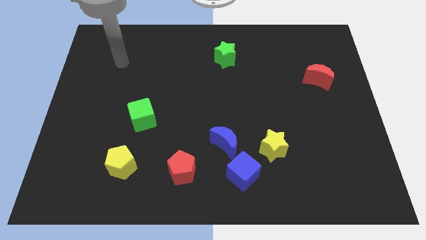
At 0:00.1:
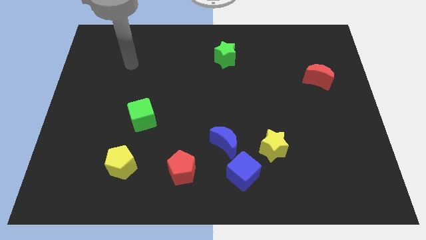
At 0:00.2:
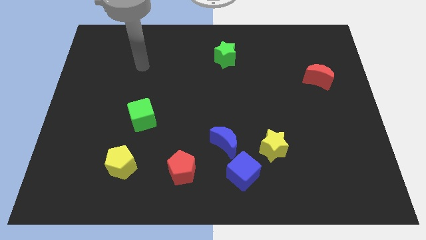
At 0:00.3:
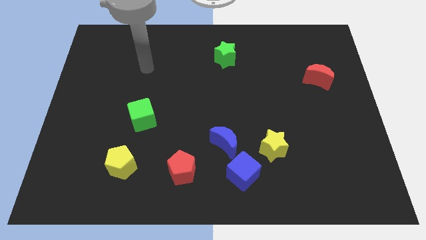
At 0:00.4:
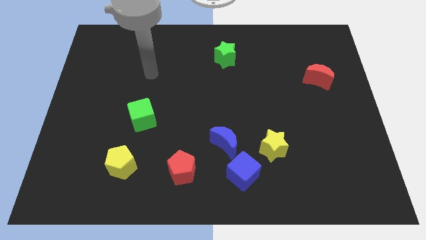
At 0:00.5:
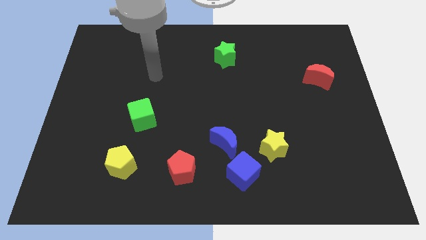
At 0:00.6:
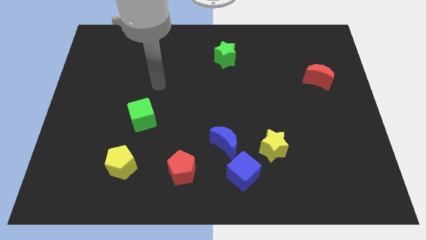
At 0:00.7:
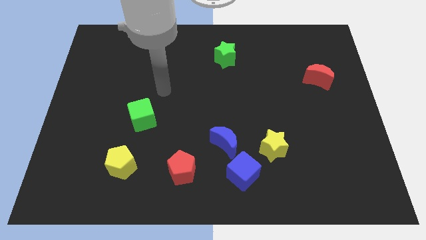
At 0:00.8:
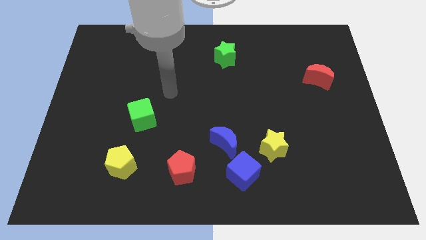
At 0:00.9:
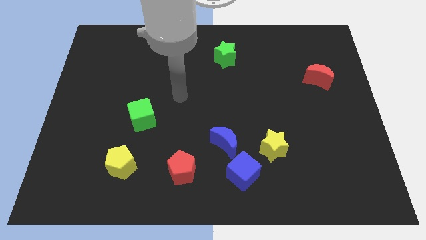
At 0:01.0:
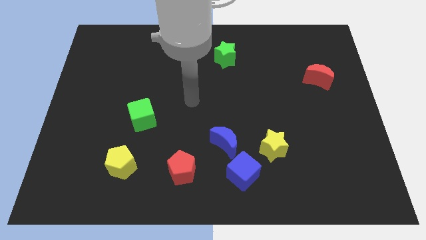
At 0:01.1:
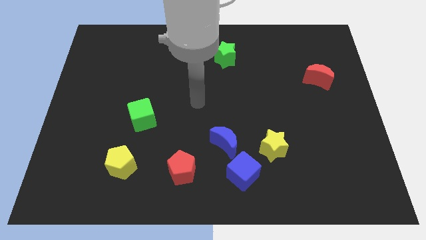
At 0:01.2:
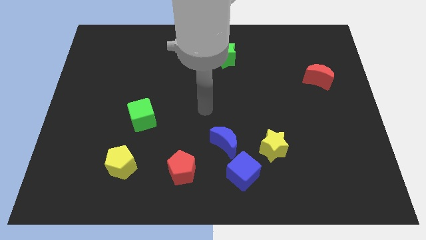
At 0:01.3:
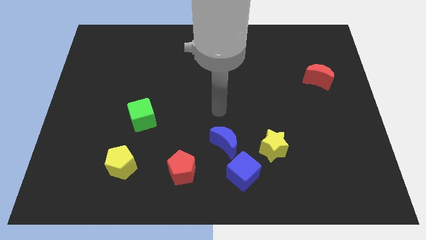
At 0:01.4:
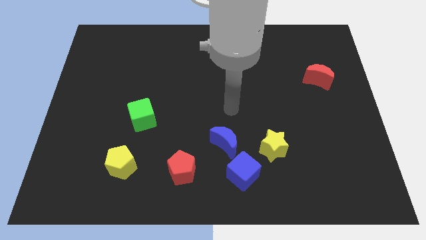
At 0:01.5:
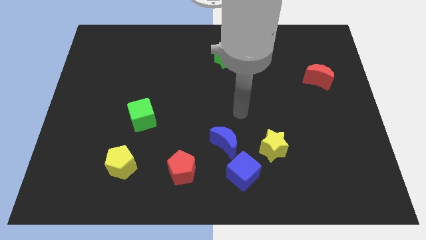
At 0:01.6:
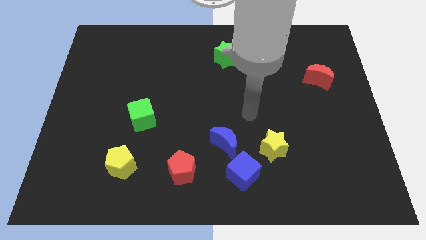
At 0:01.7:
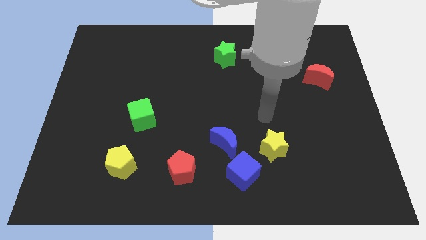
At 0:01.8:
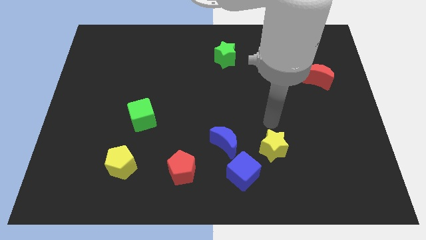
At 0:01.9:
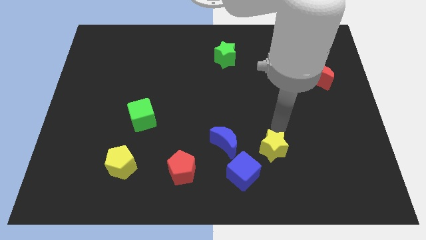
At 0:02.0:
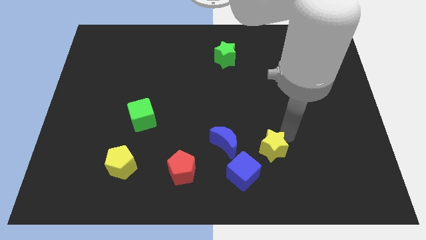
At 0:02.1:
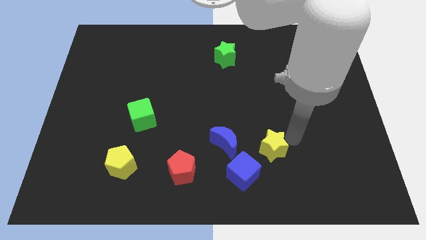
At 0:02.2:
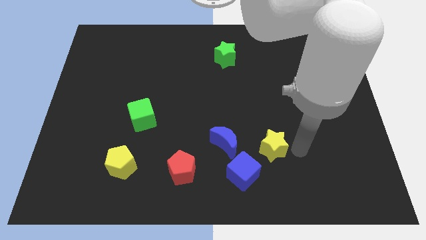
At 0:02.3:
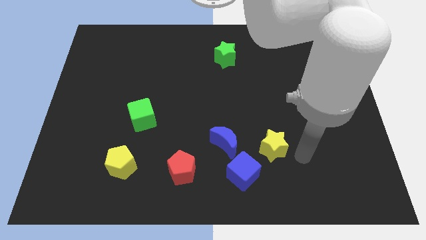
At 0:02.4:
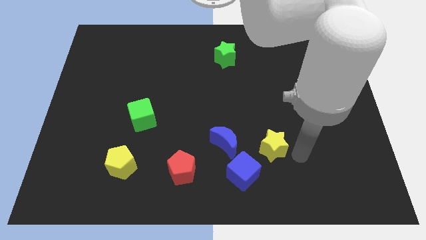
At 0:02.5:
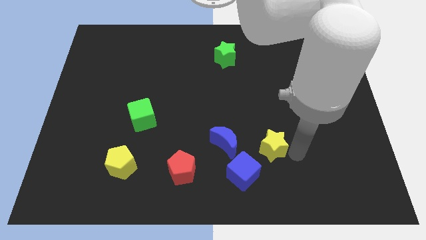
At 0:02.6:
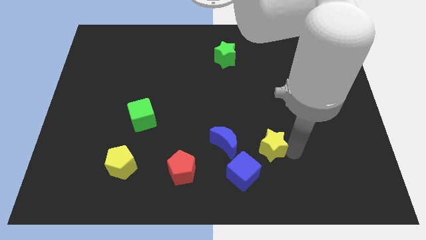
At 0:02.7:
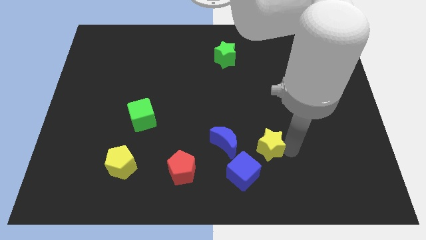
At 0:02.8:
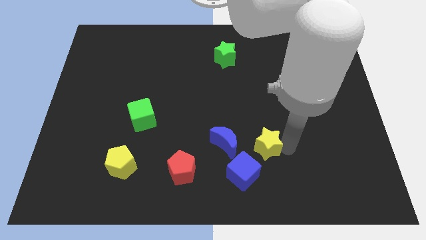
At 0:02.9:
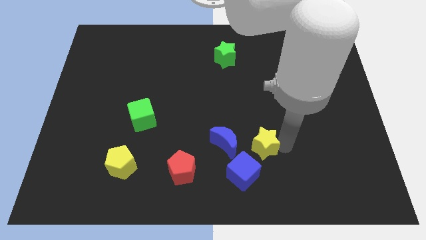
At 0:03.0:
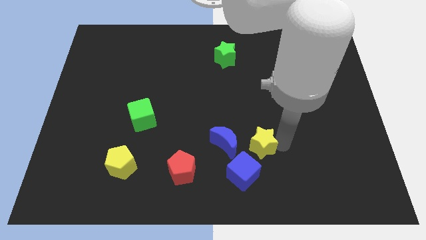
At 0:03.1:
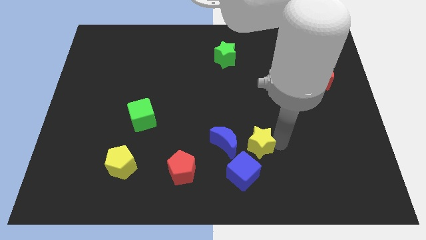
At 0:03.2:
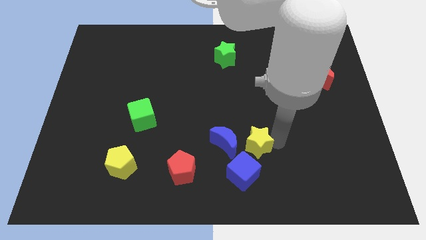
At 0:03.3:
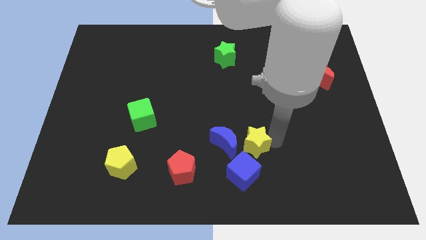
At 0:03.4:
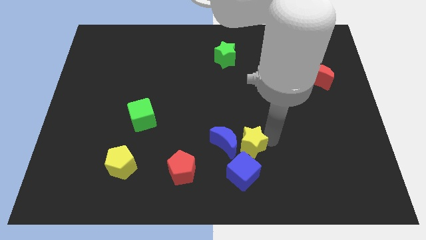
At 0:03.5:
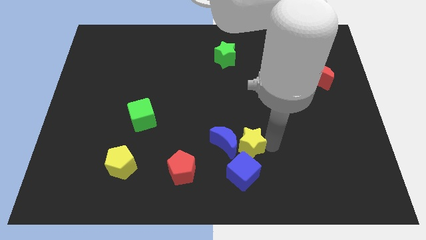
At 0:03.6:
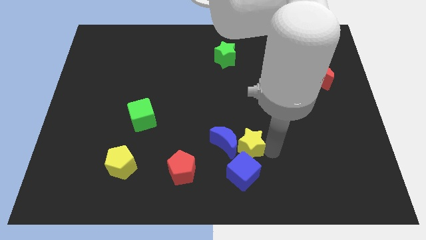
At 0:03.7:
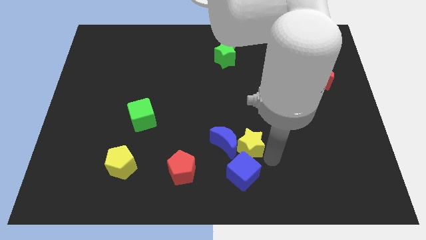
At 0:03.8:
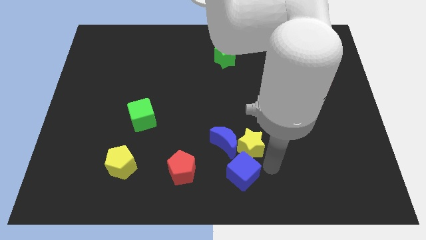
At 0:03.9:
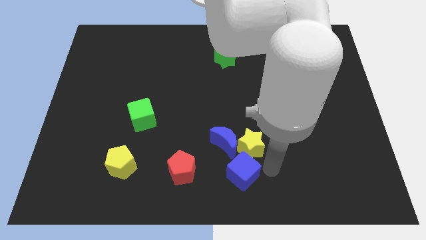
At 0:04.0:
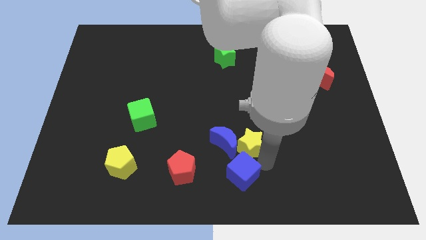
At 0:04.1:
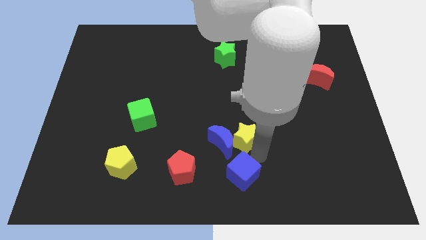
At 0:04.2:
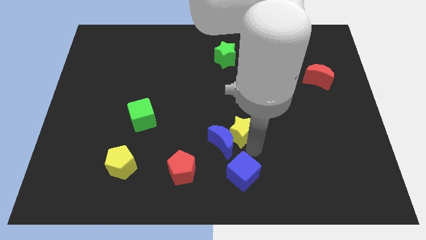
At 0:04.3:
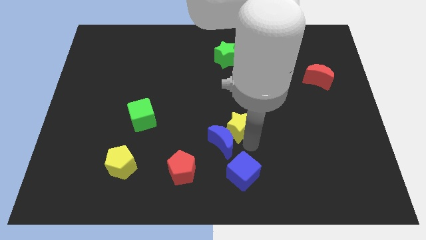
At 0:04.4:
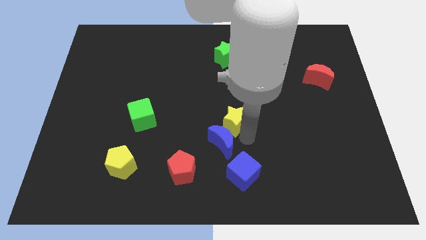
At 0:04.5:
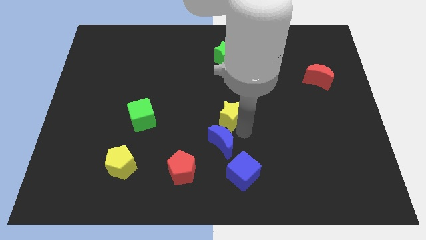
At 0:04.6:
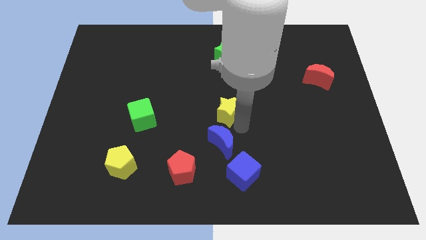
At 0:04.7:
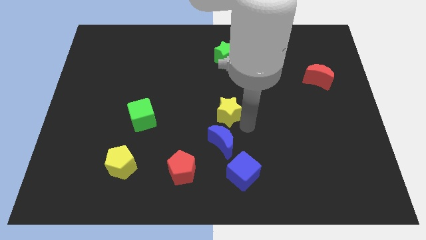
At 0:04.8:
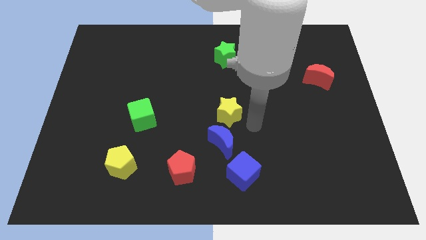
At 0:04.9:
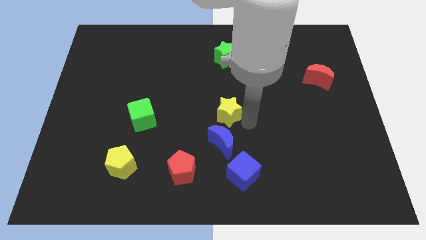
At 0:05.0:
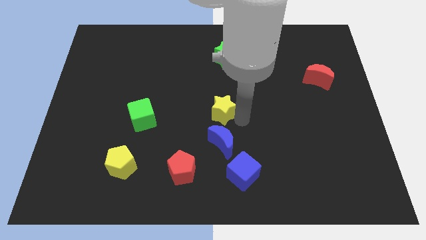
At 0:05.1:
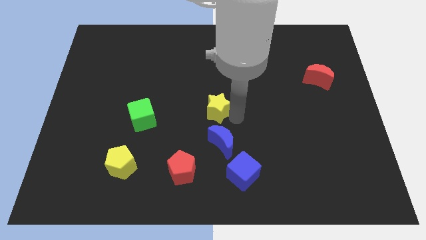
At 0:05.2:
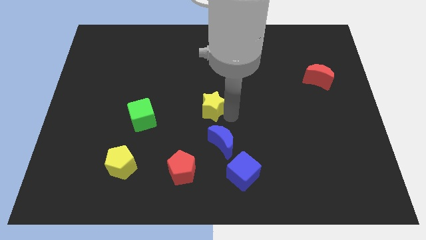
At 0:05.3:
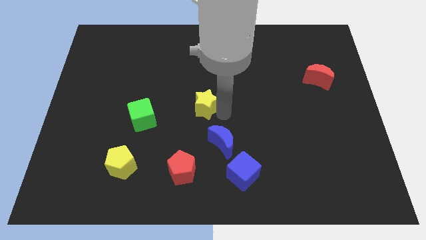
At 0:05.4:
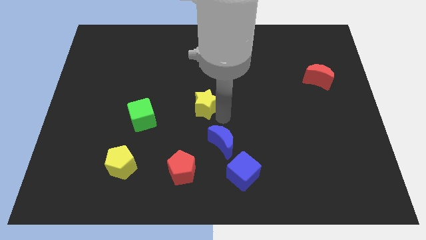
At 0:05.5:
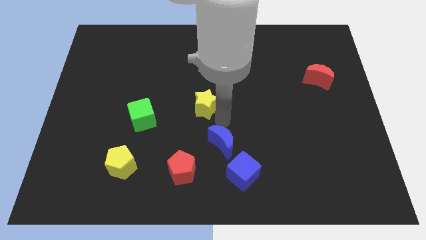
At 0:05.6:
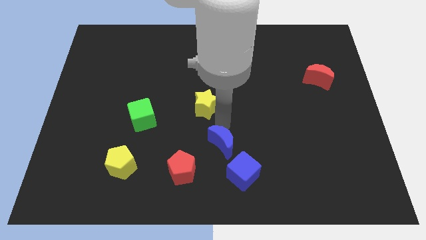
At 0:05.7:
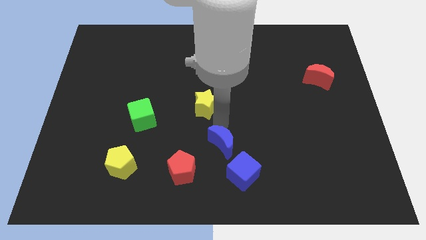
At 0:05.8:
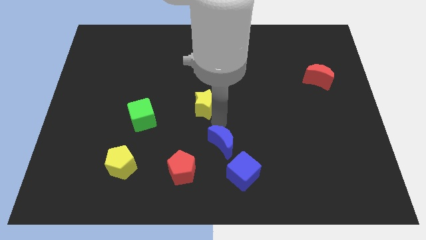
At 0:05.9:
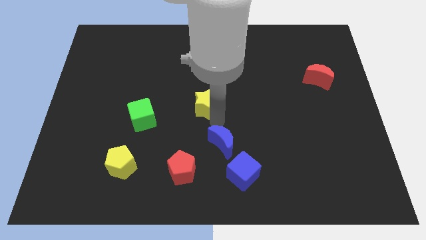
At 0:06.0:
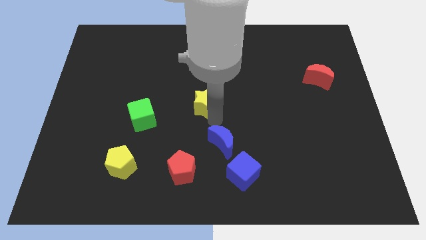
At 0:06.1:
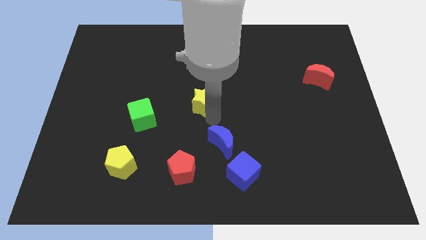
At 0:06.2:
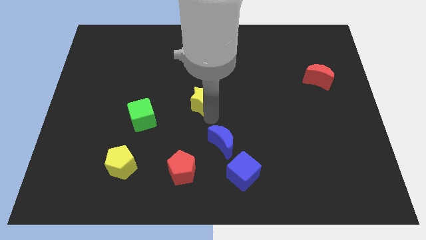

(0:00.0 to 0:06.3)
move the yellow star diagonally upwards and left

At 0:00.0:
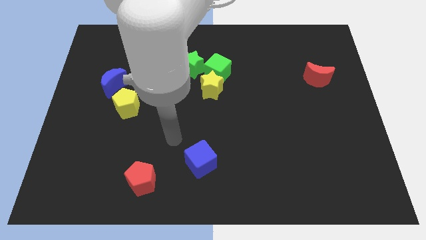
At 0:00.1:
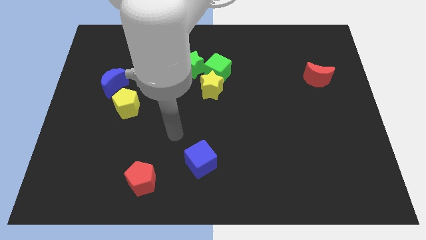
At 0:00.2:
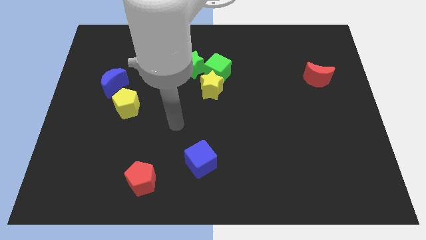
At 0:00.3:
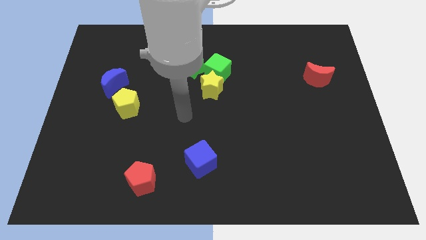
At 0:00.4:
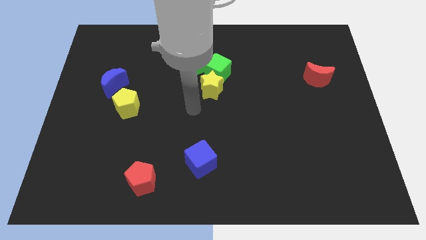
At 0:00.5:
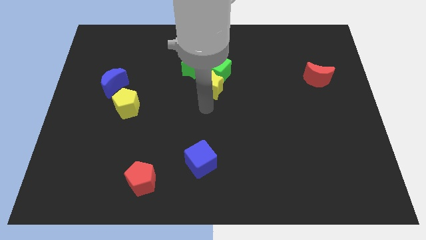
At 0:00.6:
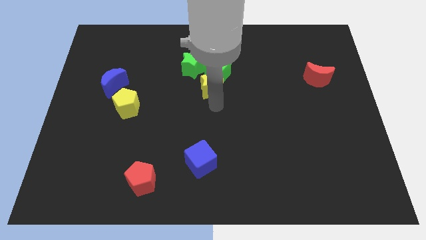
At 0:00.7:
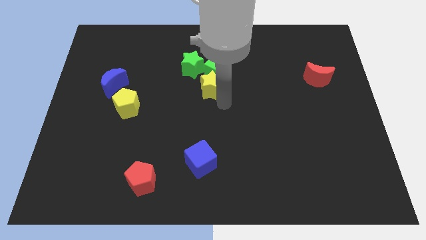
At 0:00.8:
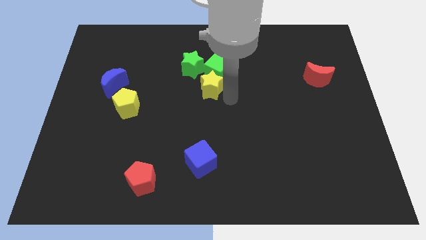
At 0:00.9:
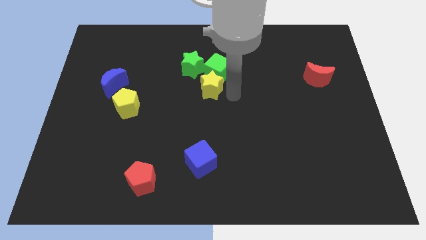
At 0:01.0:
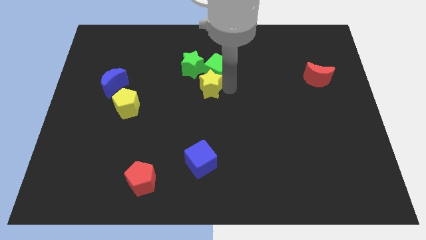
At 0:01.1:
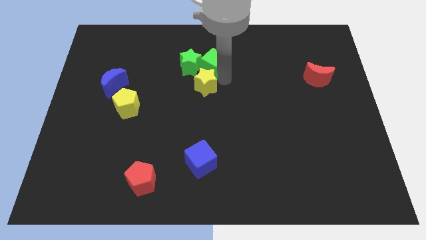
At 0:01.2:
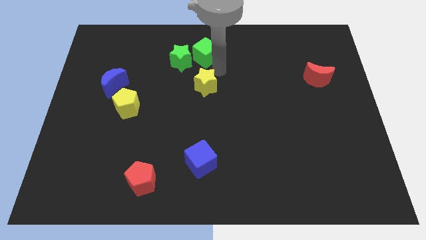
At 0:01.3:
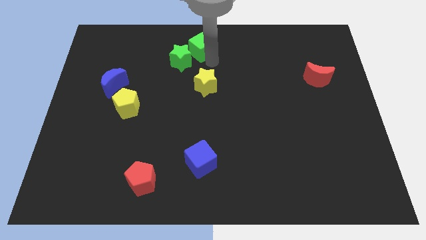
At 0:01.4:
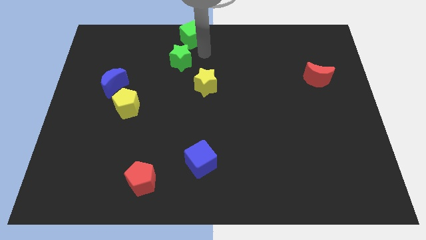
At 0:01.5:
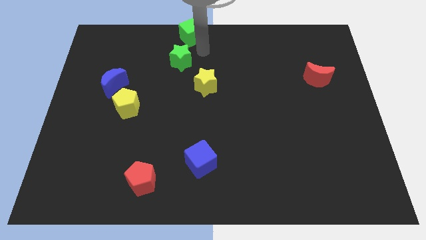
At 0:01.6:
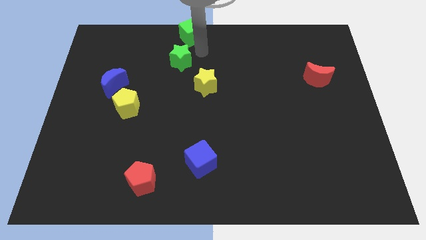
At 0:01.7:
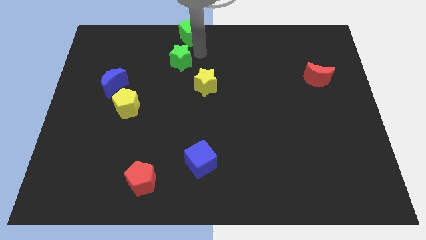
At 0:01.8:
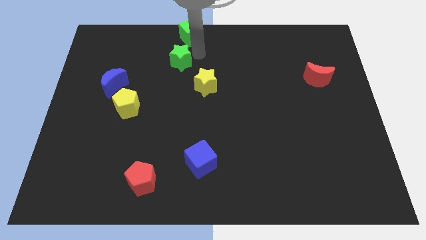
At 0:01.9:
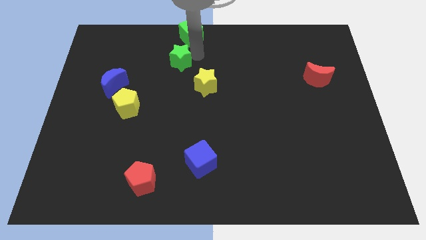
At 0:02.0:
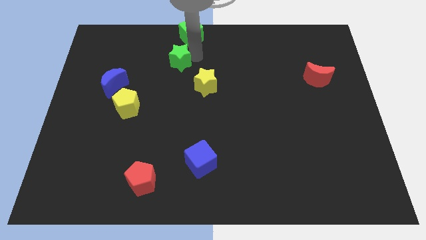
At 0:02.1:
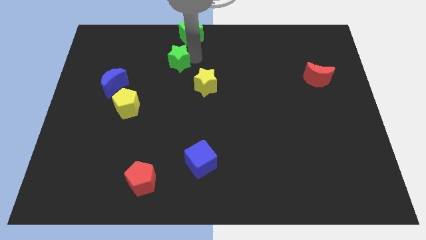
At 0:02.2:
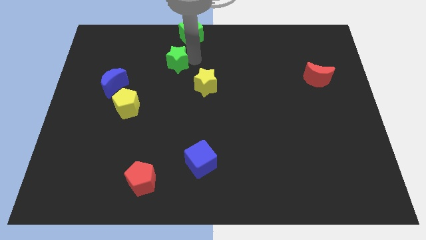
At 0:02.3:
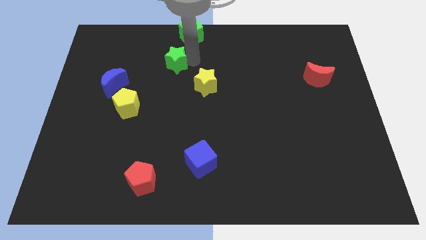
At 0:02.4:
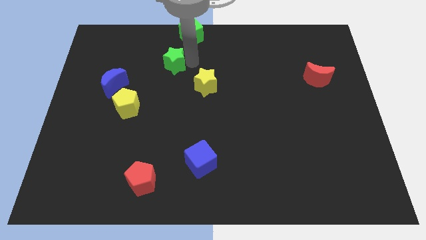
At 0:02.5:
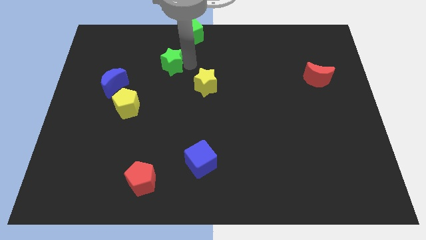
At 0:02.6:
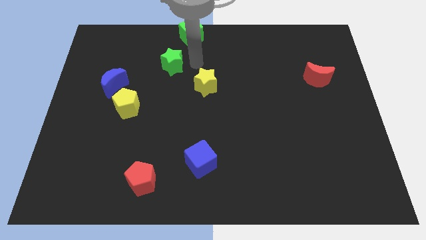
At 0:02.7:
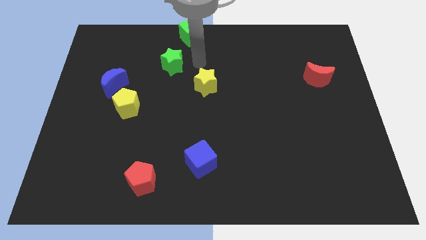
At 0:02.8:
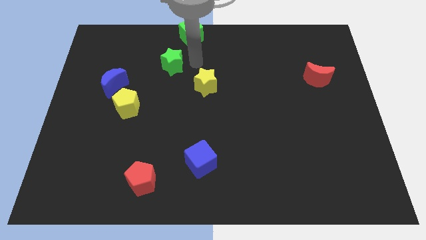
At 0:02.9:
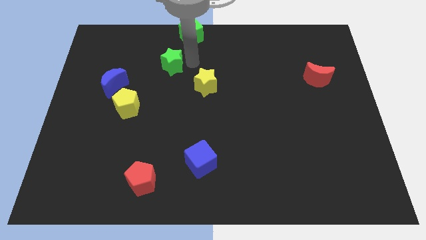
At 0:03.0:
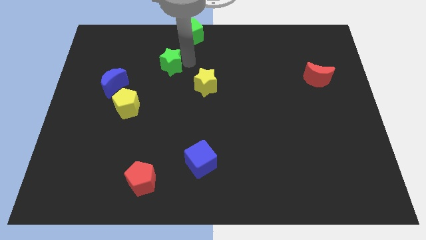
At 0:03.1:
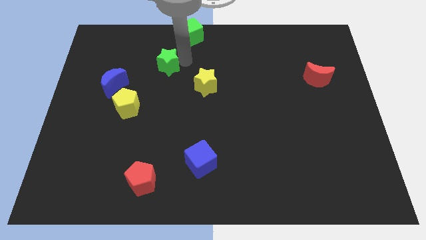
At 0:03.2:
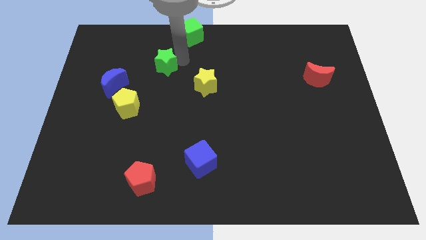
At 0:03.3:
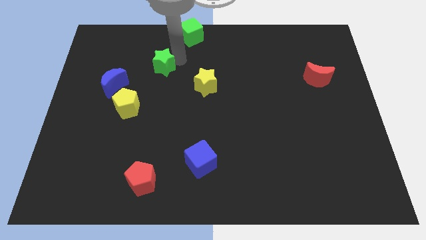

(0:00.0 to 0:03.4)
push the green star left a little
